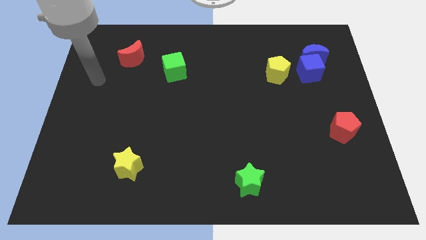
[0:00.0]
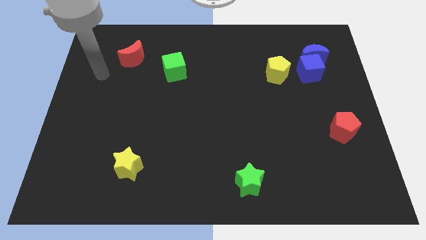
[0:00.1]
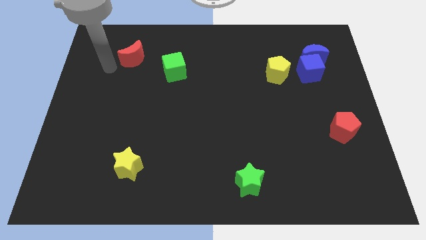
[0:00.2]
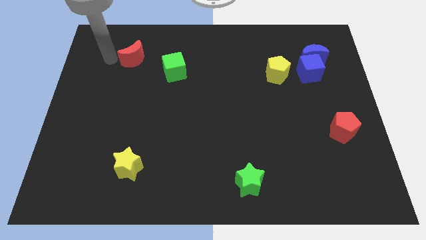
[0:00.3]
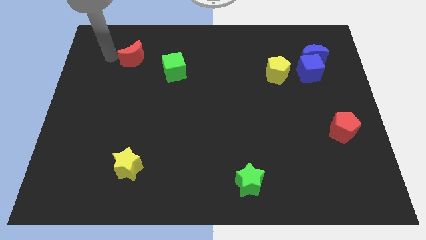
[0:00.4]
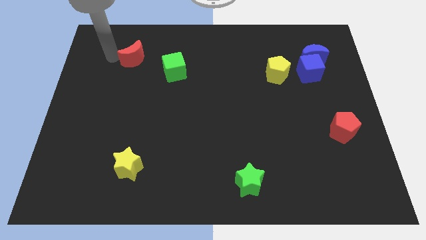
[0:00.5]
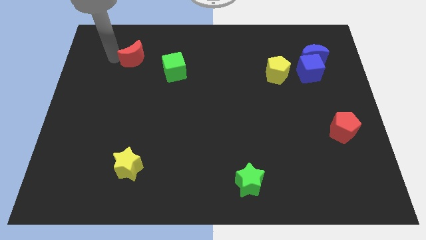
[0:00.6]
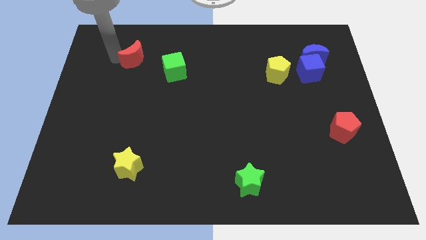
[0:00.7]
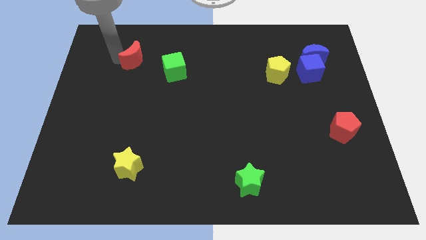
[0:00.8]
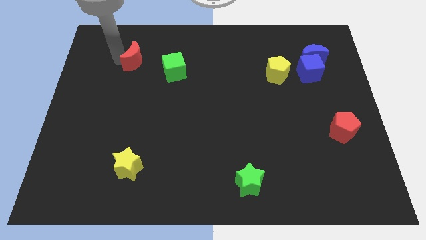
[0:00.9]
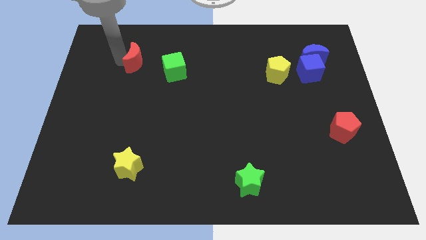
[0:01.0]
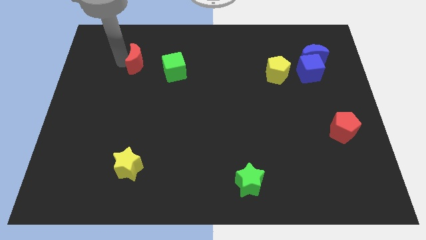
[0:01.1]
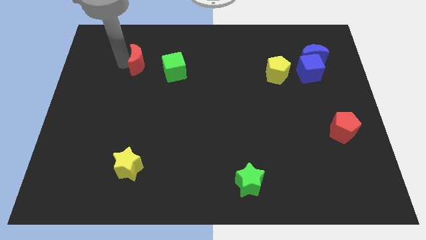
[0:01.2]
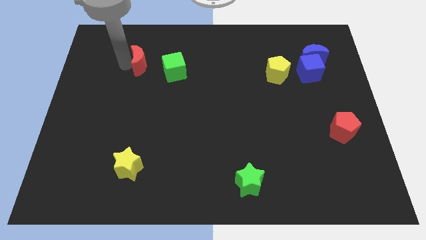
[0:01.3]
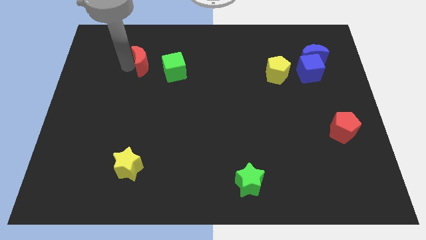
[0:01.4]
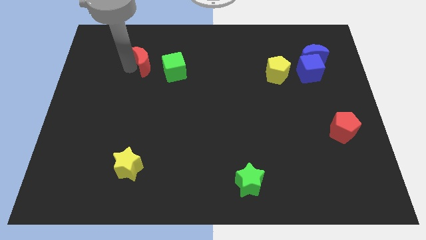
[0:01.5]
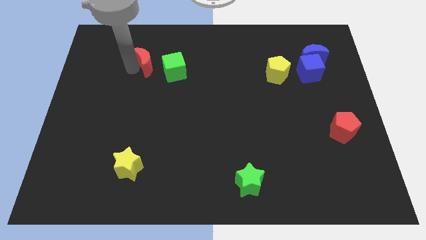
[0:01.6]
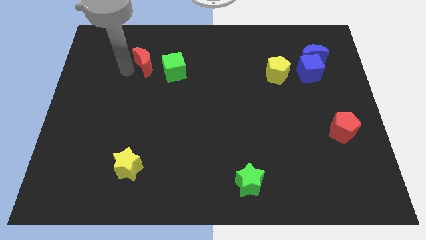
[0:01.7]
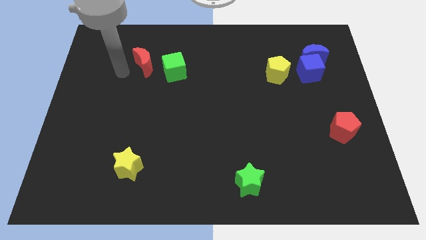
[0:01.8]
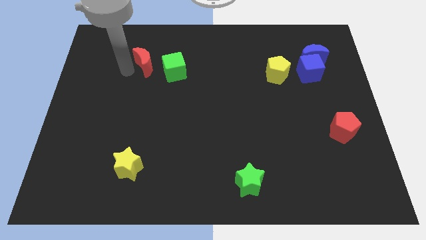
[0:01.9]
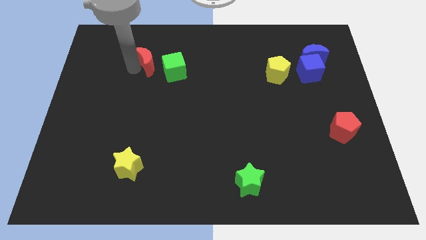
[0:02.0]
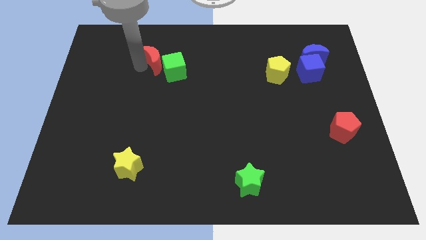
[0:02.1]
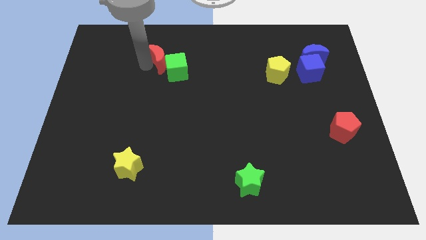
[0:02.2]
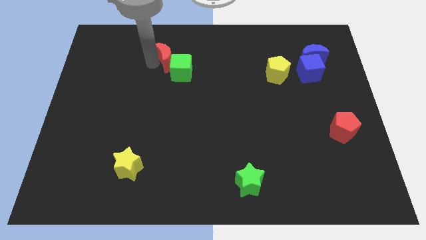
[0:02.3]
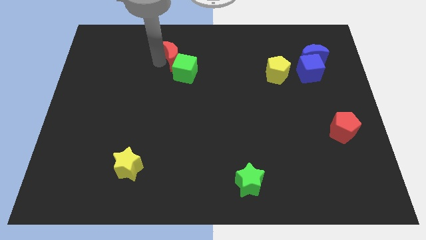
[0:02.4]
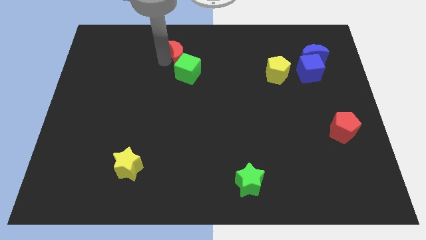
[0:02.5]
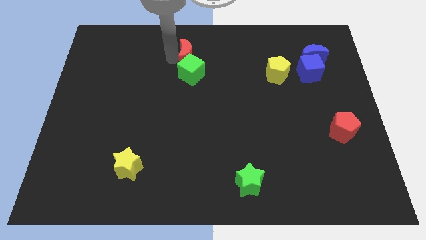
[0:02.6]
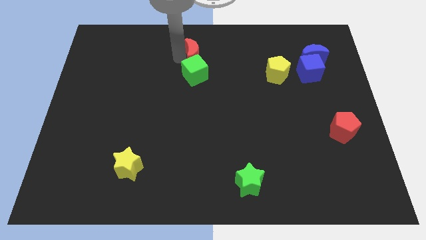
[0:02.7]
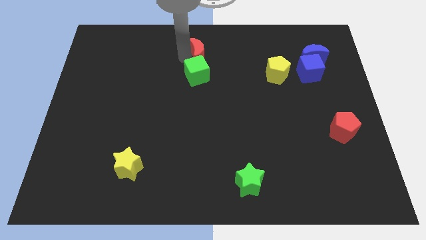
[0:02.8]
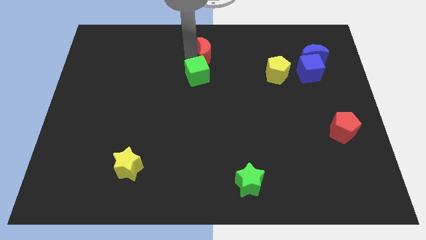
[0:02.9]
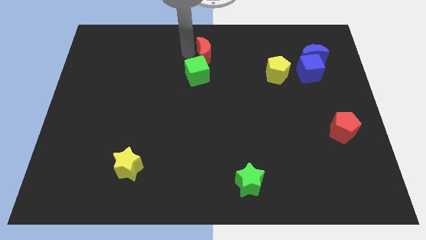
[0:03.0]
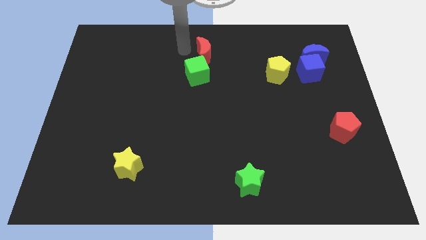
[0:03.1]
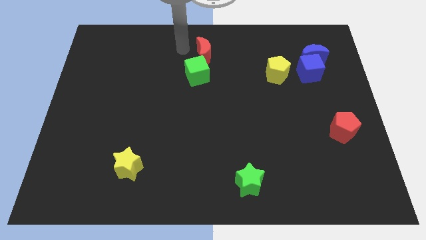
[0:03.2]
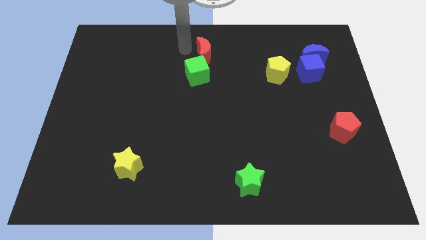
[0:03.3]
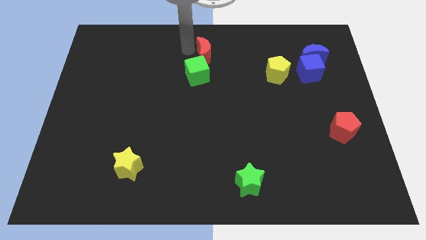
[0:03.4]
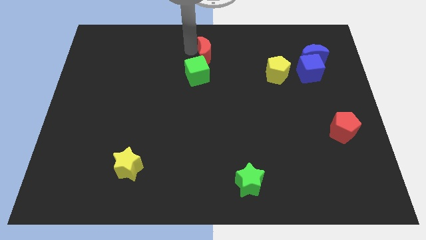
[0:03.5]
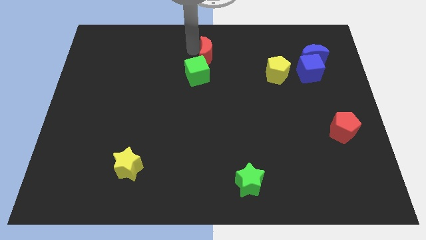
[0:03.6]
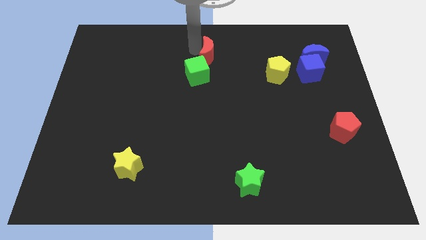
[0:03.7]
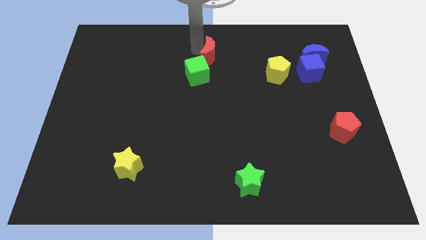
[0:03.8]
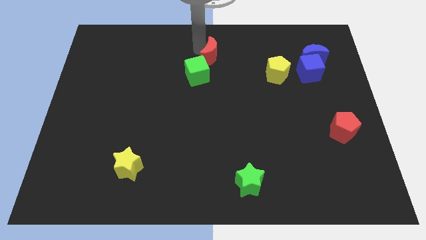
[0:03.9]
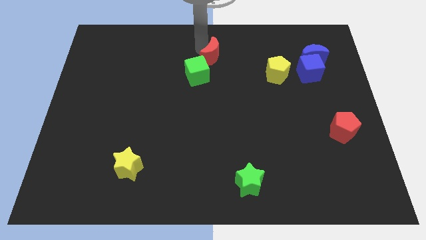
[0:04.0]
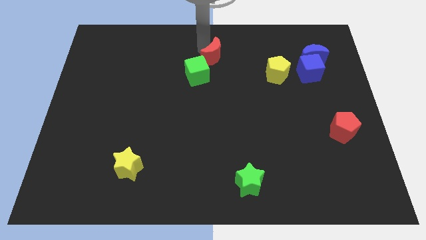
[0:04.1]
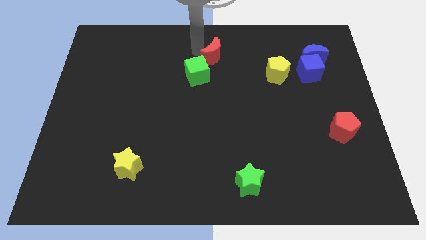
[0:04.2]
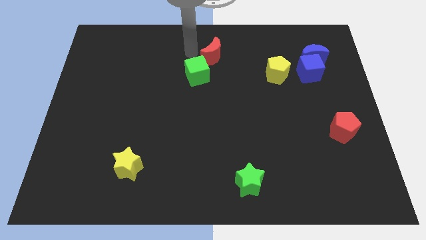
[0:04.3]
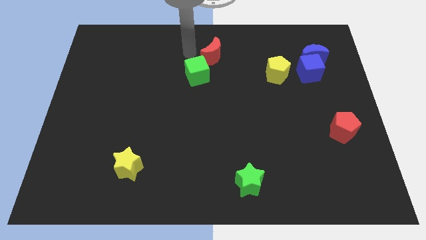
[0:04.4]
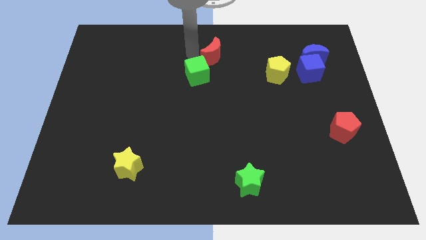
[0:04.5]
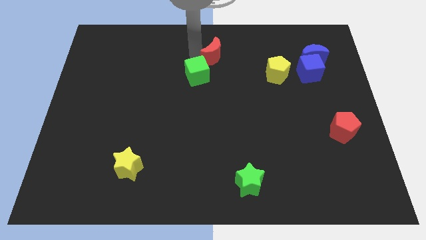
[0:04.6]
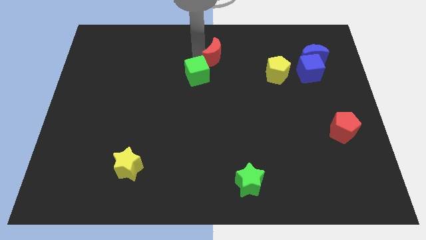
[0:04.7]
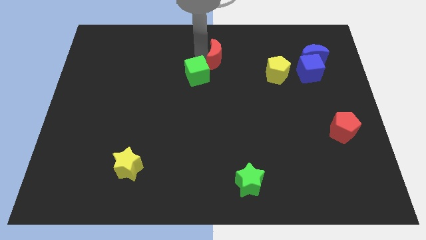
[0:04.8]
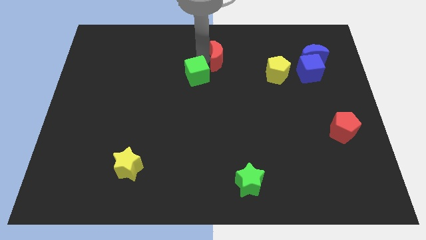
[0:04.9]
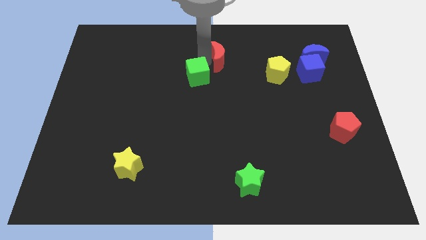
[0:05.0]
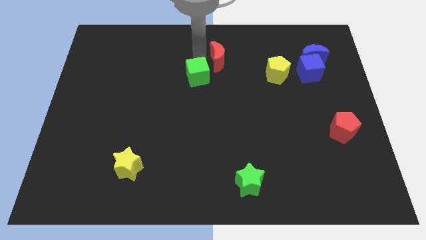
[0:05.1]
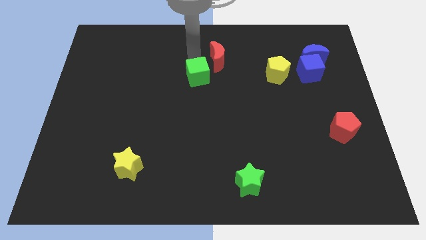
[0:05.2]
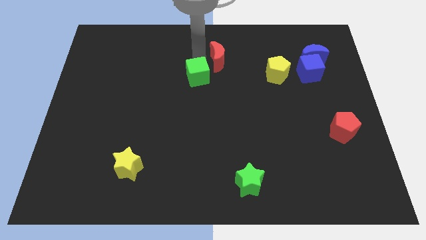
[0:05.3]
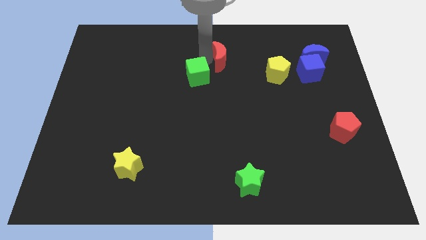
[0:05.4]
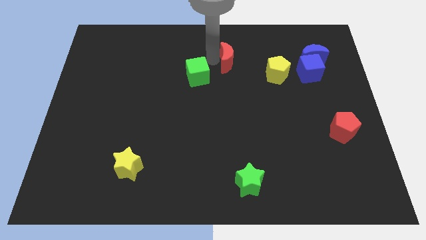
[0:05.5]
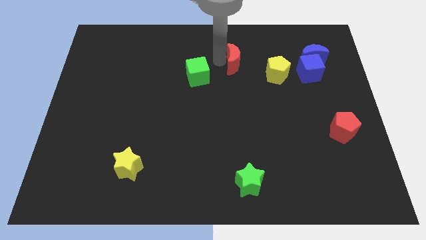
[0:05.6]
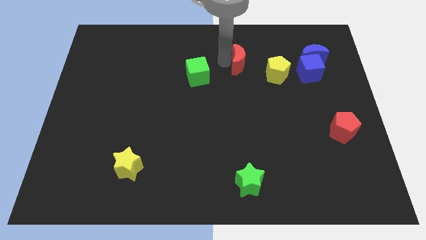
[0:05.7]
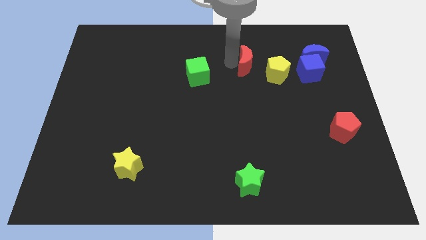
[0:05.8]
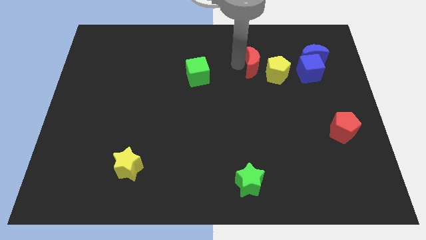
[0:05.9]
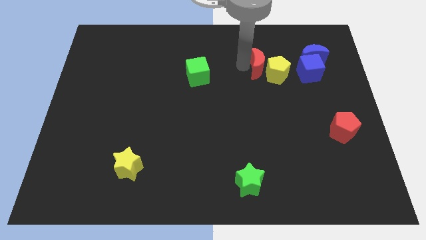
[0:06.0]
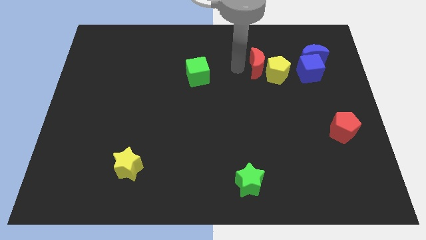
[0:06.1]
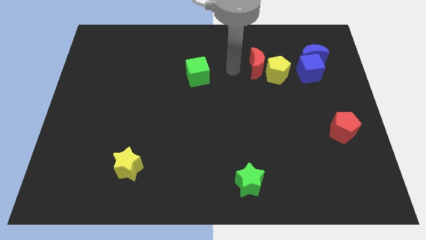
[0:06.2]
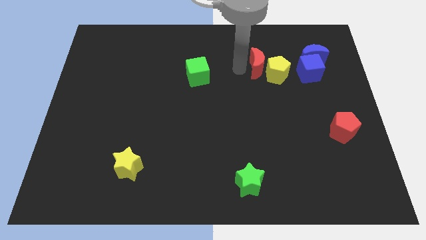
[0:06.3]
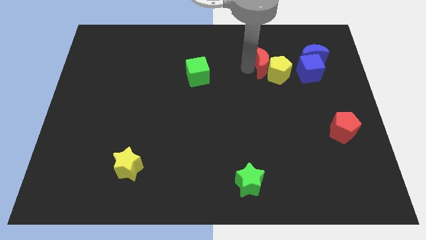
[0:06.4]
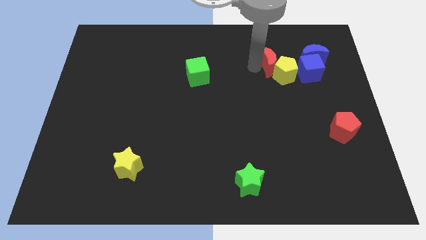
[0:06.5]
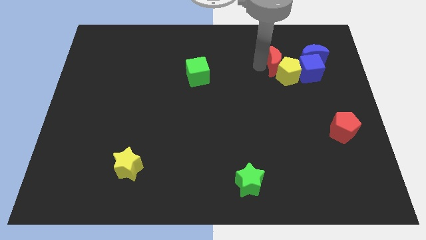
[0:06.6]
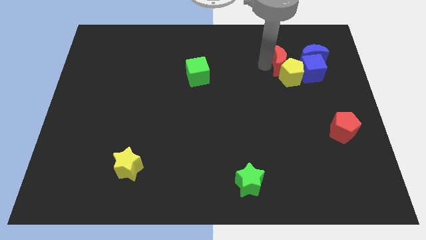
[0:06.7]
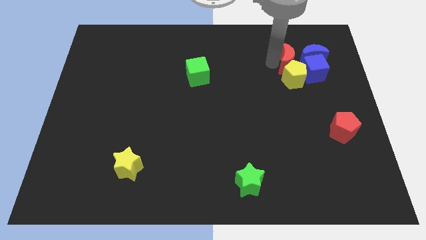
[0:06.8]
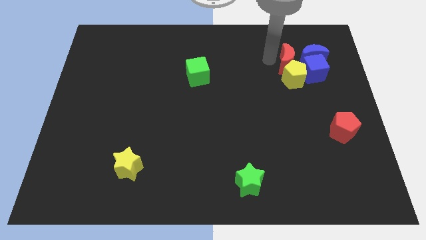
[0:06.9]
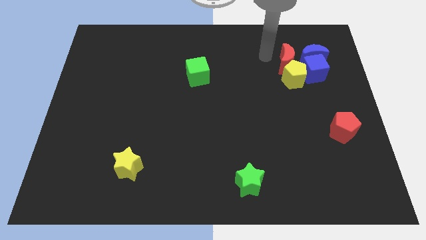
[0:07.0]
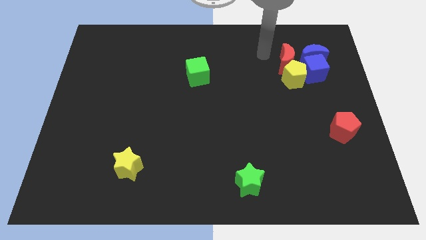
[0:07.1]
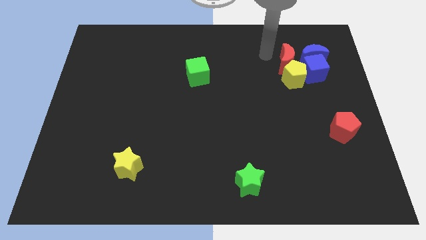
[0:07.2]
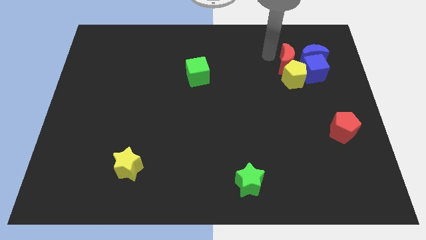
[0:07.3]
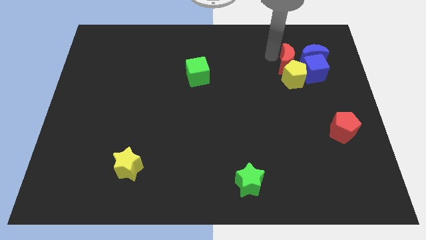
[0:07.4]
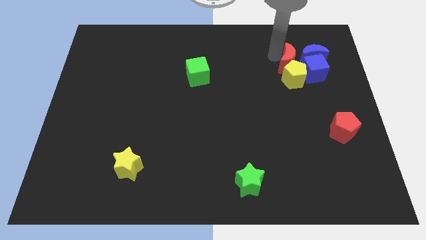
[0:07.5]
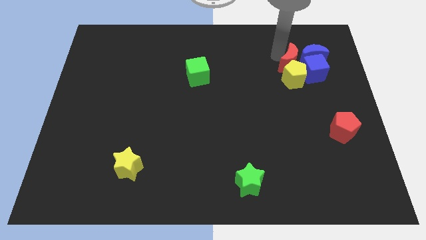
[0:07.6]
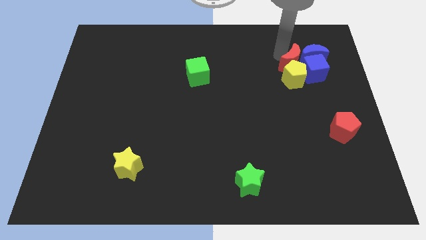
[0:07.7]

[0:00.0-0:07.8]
push the red moon close to the blue cube
